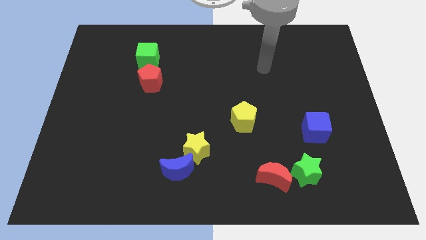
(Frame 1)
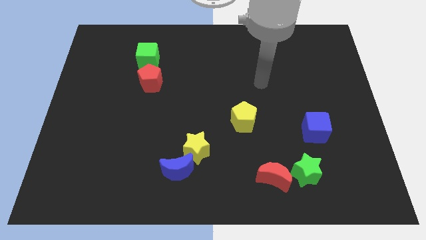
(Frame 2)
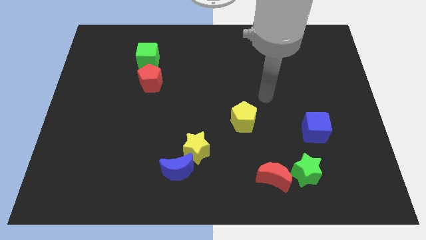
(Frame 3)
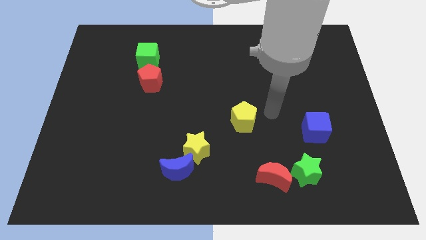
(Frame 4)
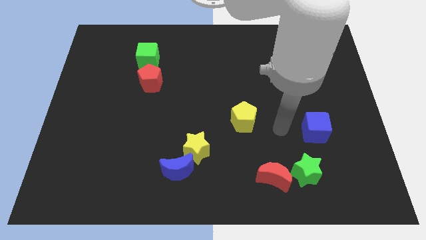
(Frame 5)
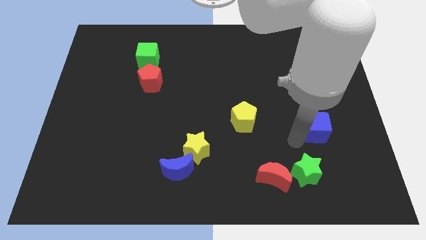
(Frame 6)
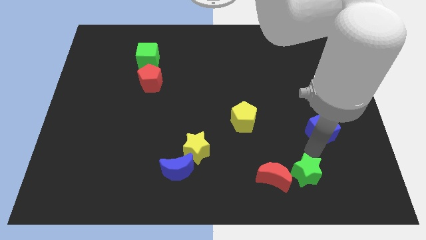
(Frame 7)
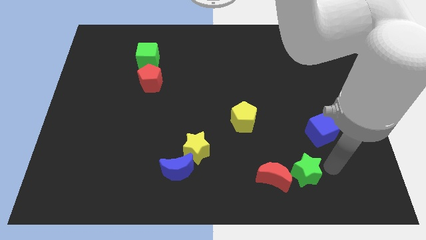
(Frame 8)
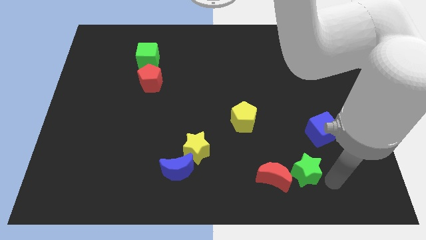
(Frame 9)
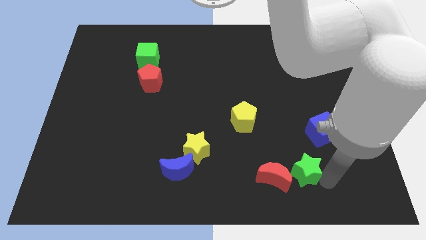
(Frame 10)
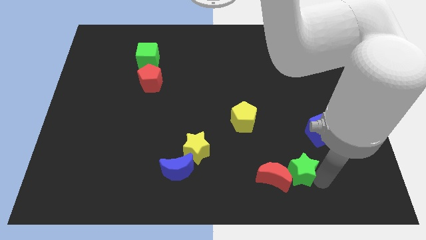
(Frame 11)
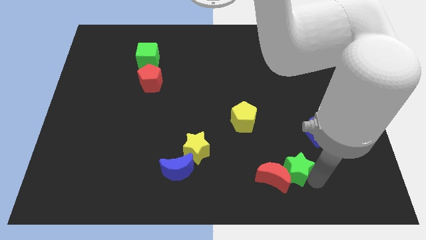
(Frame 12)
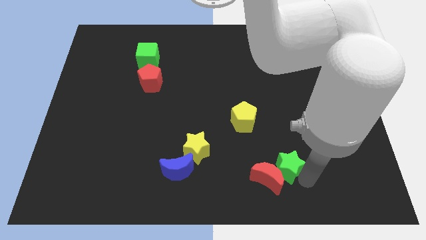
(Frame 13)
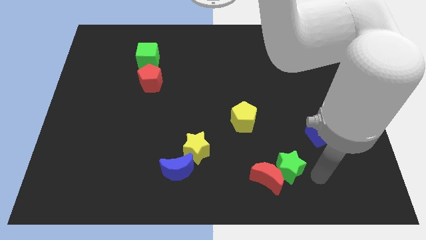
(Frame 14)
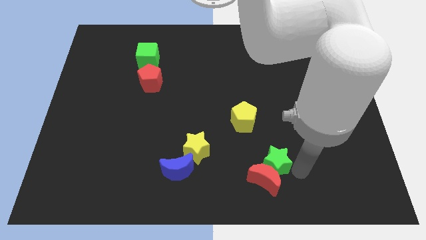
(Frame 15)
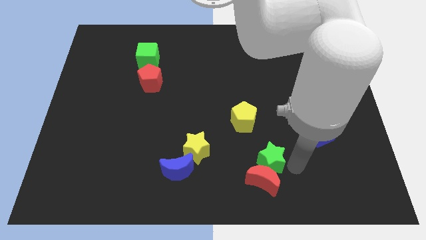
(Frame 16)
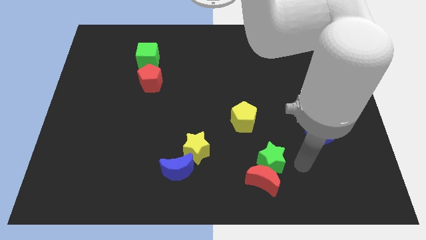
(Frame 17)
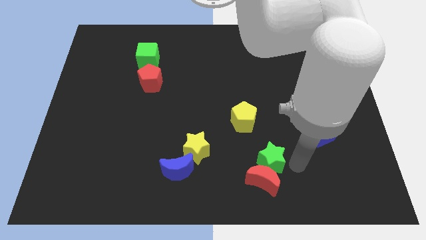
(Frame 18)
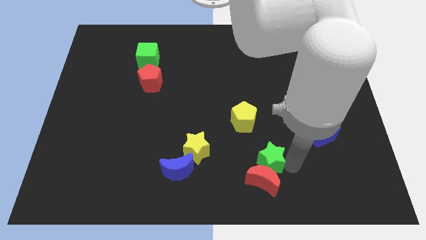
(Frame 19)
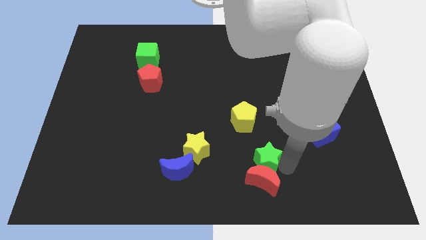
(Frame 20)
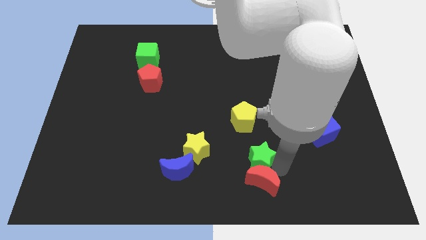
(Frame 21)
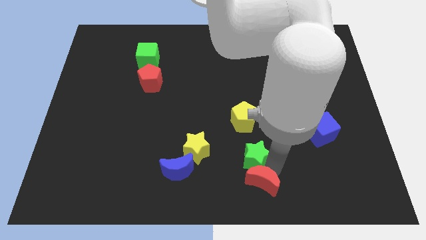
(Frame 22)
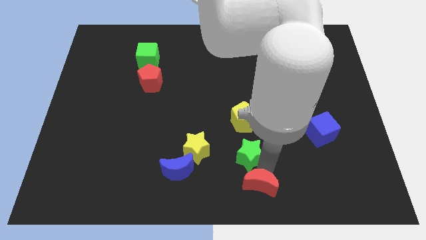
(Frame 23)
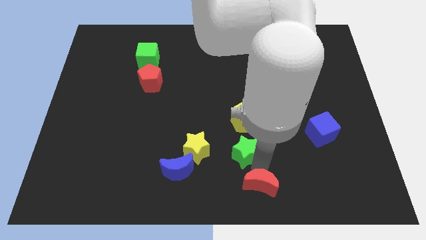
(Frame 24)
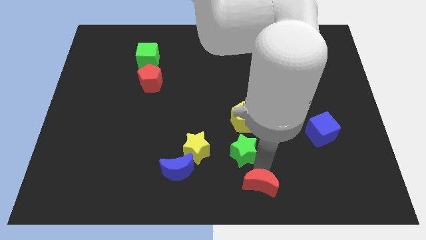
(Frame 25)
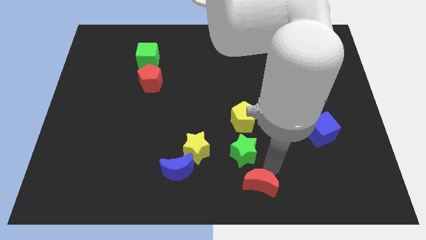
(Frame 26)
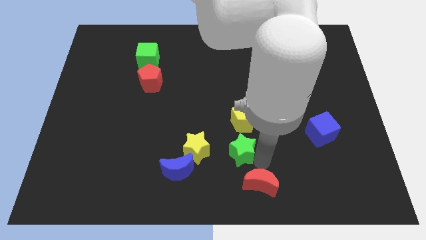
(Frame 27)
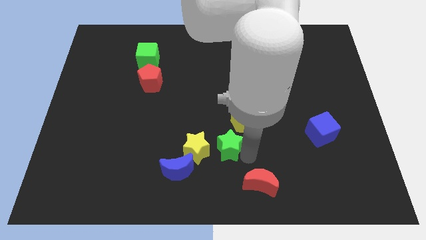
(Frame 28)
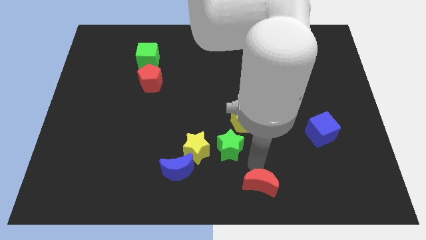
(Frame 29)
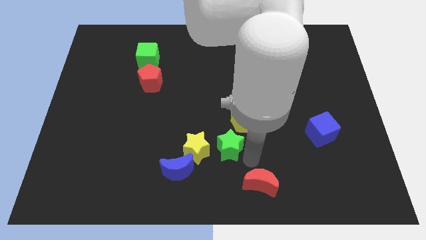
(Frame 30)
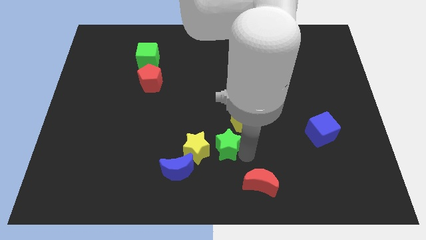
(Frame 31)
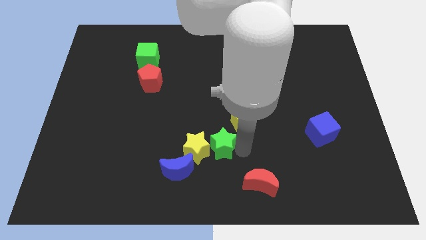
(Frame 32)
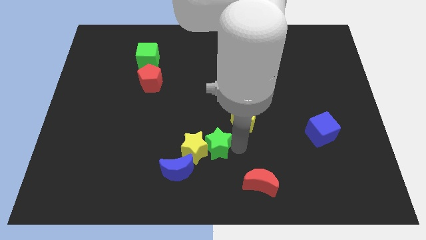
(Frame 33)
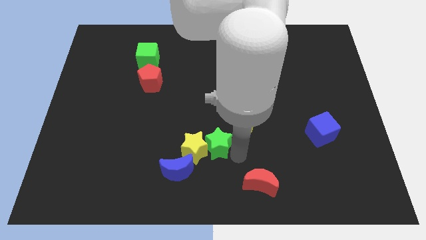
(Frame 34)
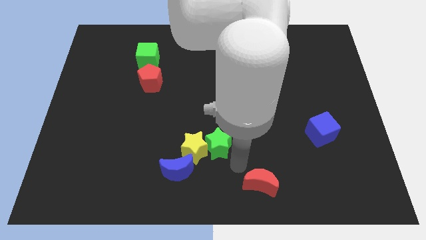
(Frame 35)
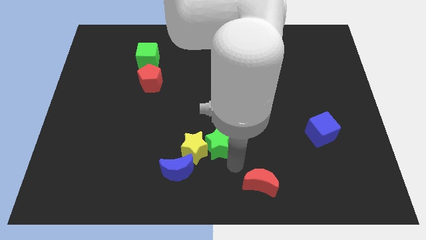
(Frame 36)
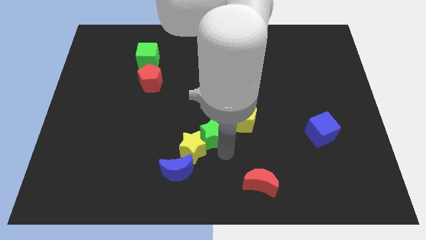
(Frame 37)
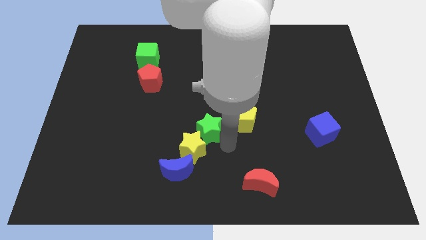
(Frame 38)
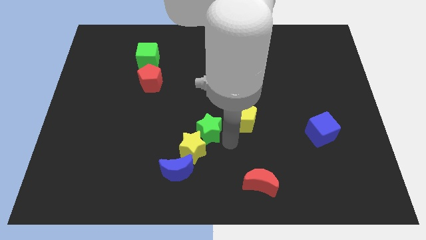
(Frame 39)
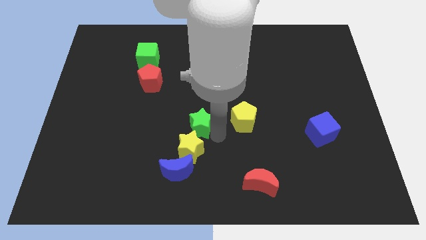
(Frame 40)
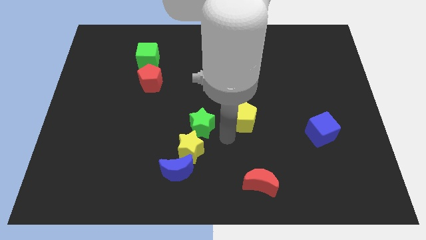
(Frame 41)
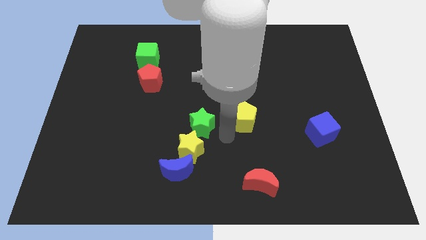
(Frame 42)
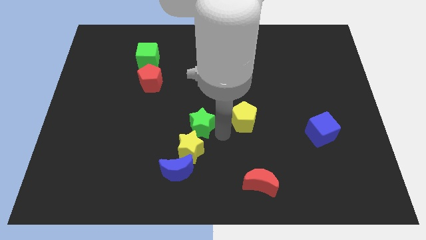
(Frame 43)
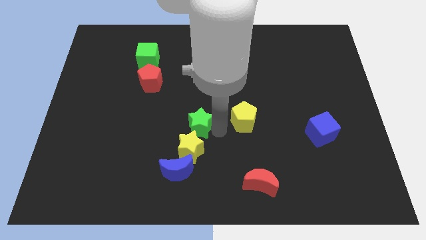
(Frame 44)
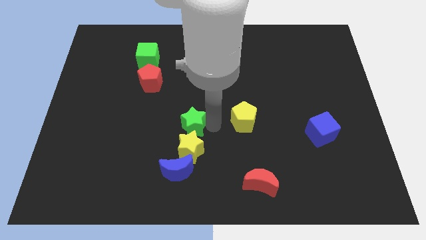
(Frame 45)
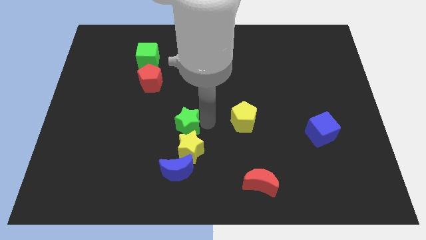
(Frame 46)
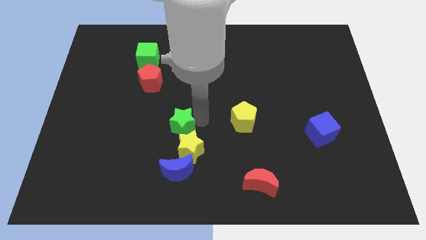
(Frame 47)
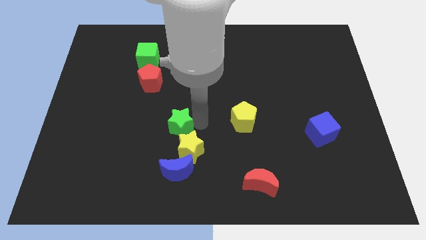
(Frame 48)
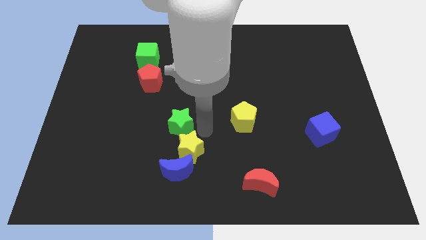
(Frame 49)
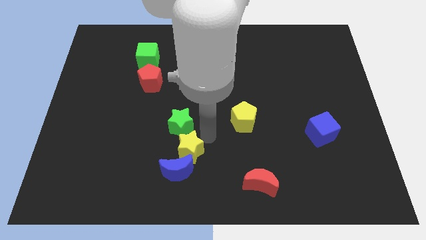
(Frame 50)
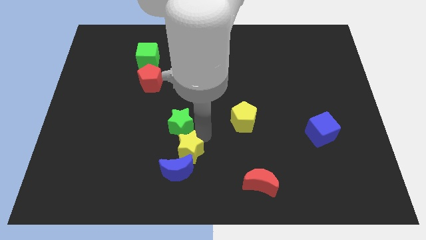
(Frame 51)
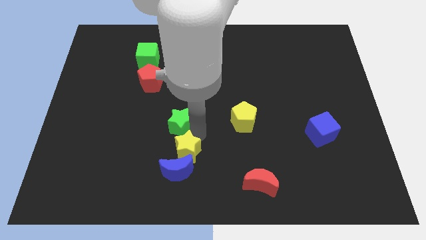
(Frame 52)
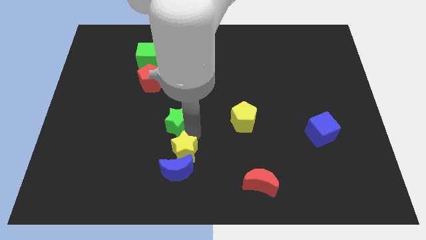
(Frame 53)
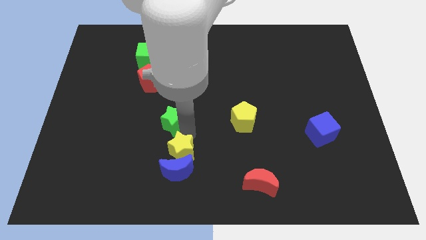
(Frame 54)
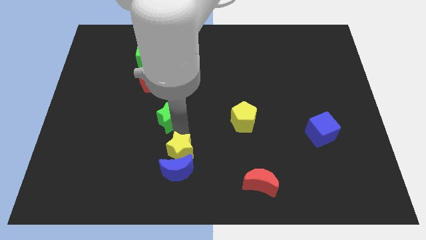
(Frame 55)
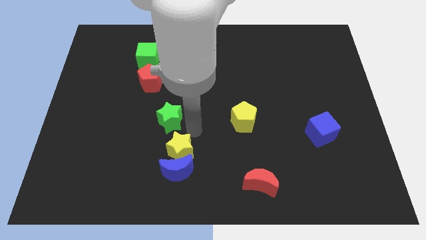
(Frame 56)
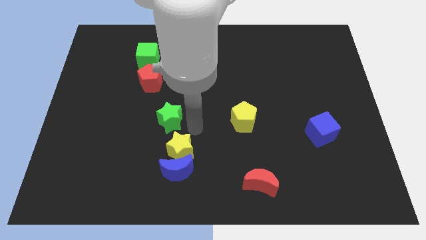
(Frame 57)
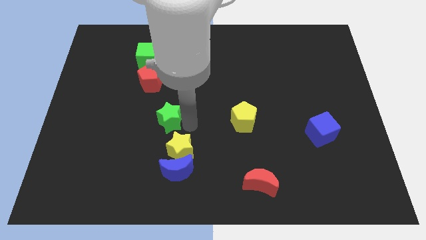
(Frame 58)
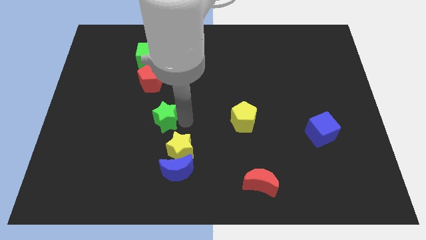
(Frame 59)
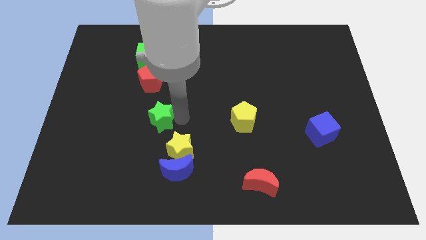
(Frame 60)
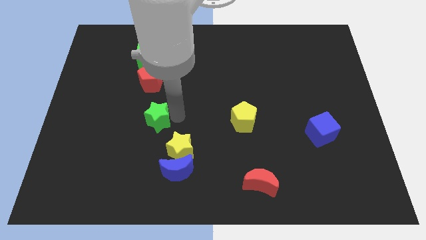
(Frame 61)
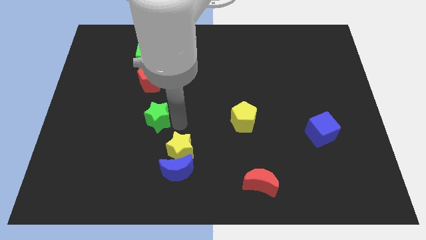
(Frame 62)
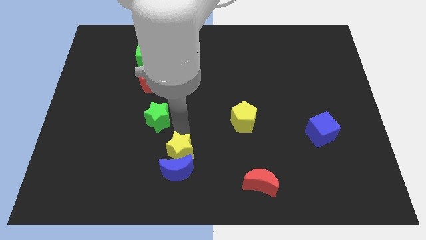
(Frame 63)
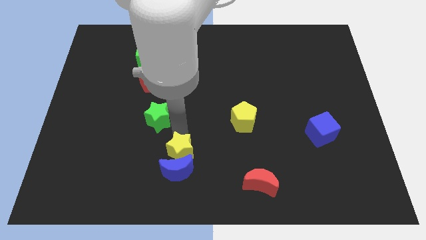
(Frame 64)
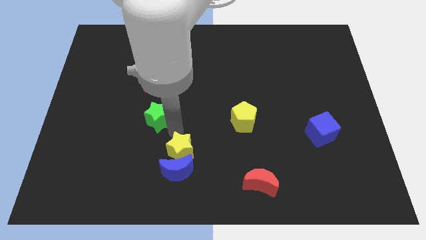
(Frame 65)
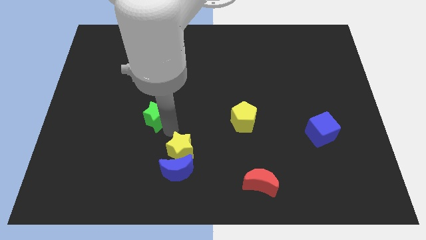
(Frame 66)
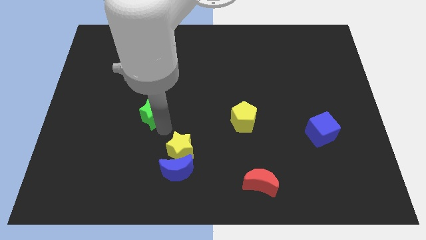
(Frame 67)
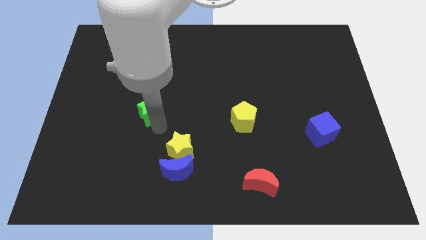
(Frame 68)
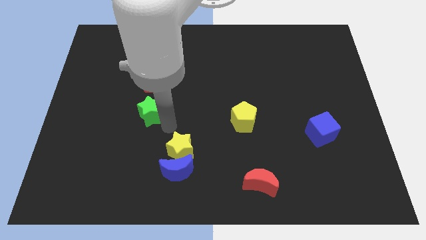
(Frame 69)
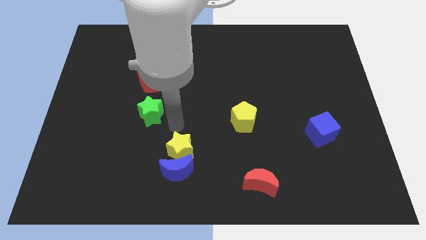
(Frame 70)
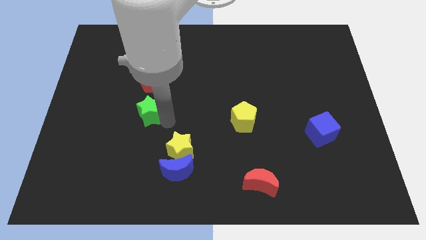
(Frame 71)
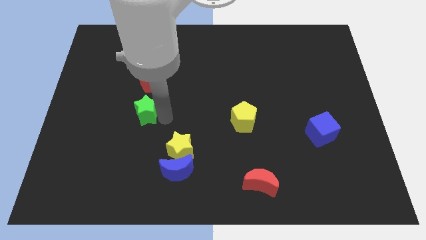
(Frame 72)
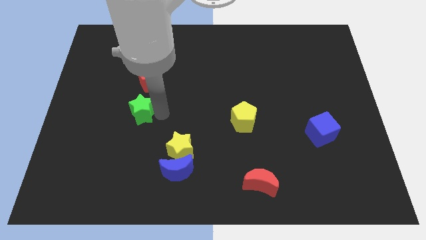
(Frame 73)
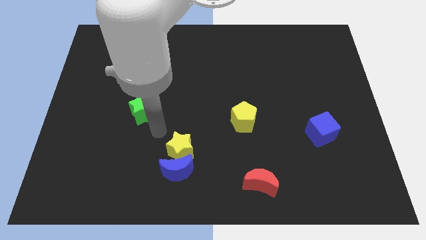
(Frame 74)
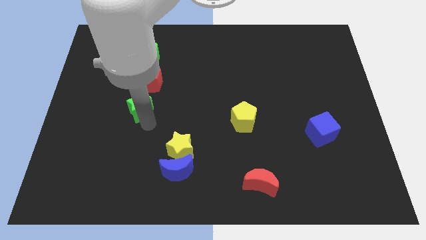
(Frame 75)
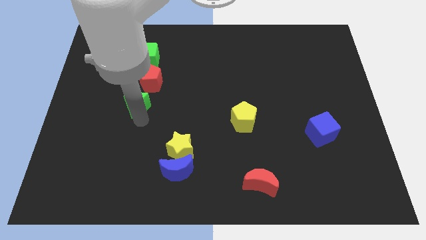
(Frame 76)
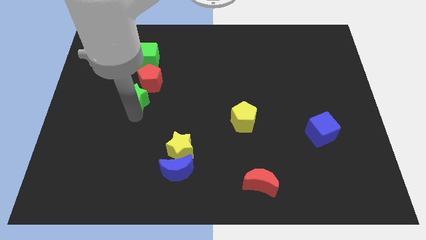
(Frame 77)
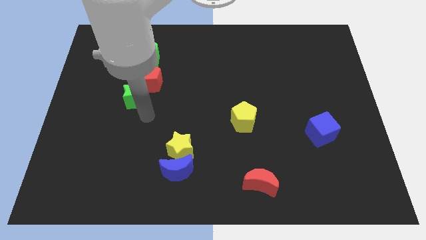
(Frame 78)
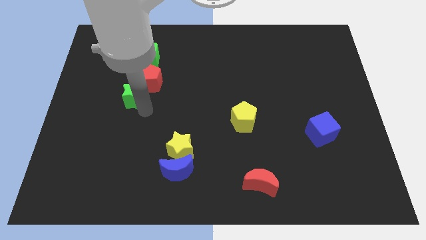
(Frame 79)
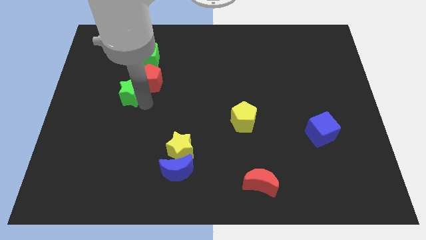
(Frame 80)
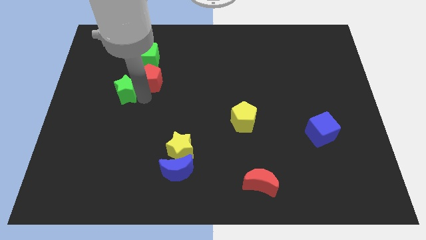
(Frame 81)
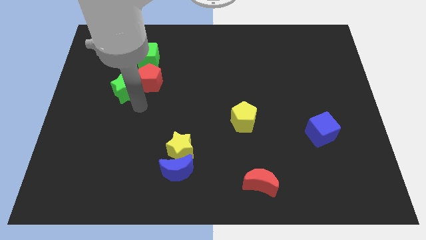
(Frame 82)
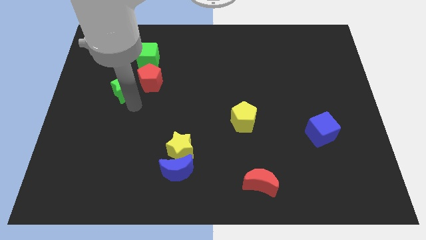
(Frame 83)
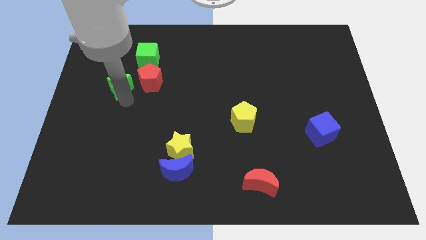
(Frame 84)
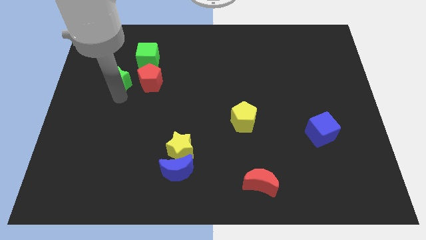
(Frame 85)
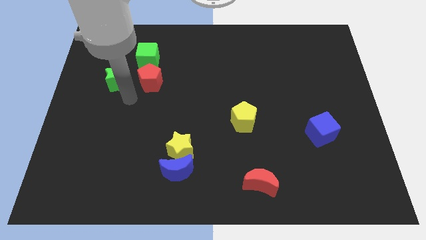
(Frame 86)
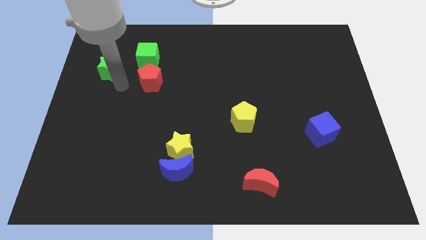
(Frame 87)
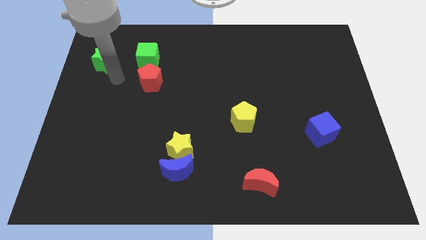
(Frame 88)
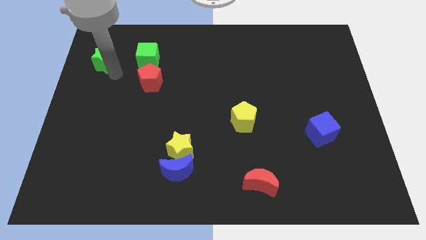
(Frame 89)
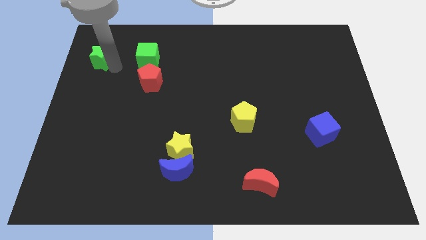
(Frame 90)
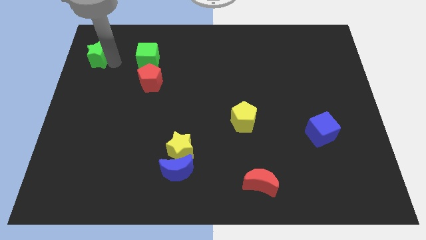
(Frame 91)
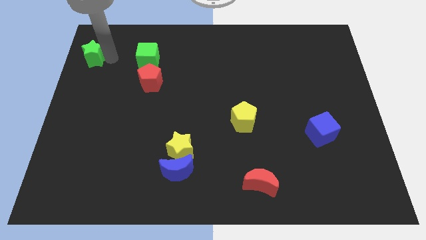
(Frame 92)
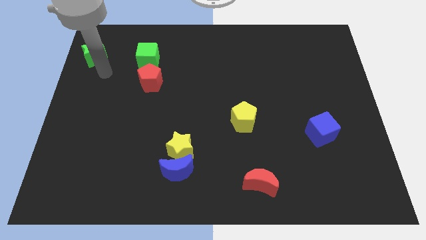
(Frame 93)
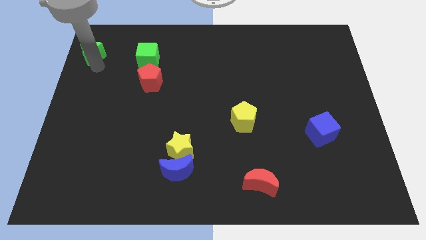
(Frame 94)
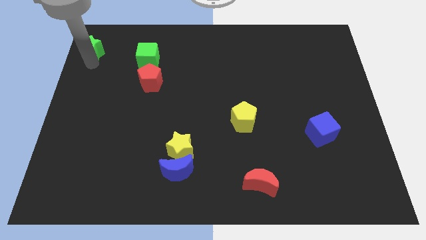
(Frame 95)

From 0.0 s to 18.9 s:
push the green star to the top left corner
